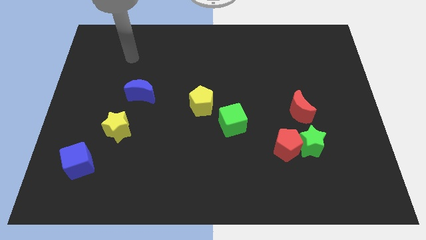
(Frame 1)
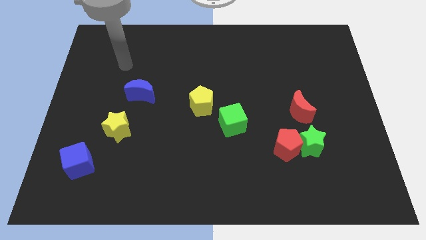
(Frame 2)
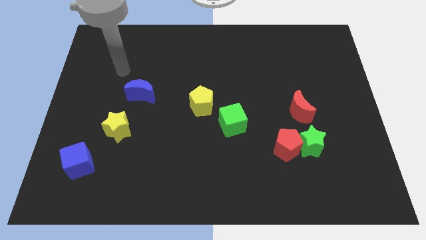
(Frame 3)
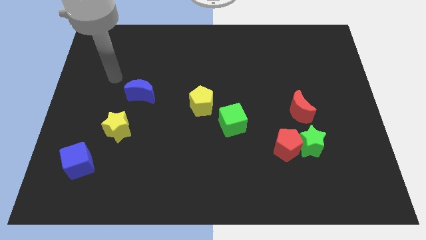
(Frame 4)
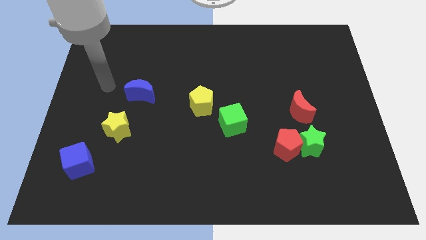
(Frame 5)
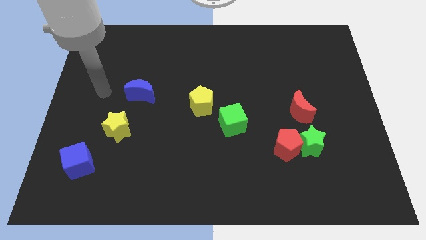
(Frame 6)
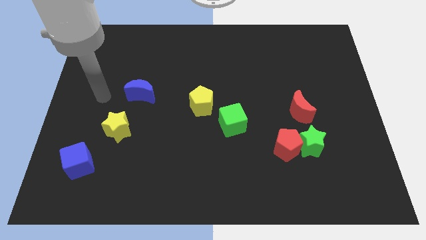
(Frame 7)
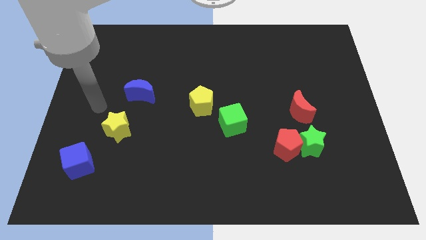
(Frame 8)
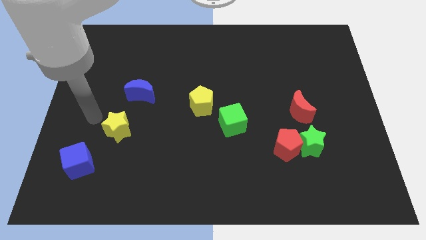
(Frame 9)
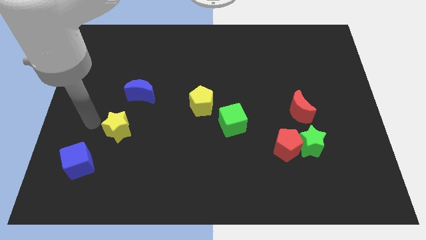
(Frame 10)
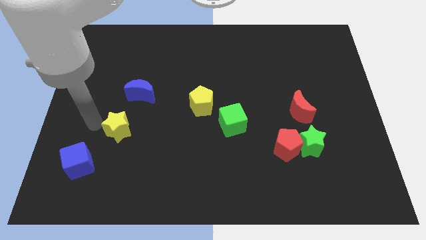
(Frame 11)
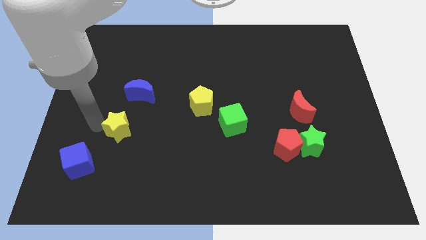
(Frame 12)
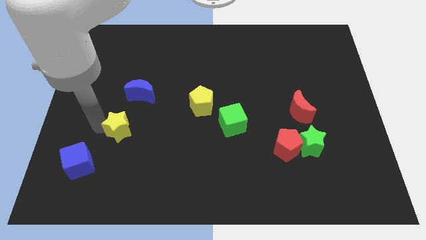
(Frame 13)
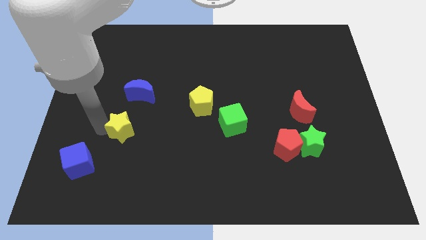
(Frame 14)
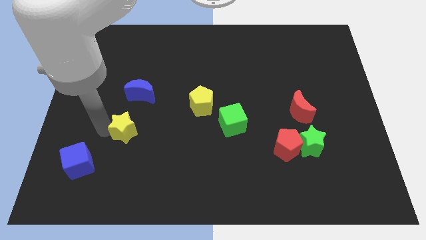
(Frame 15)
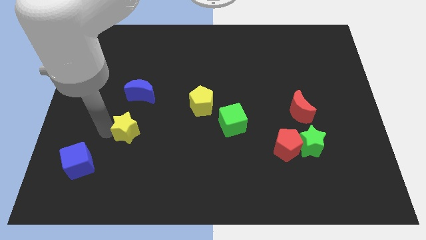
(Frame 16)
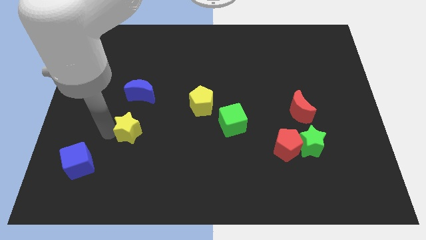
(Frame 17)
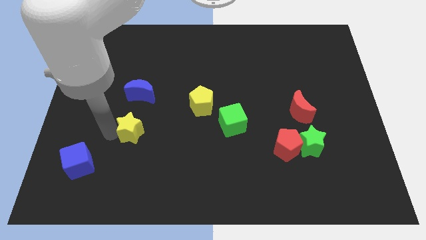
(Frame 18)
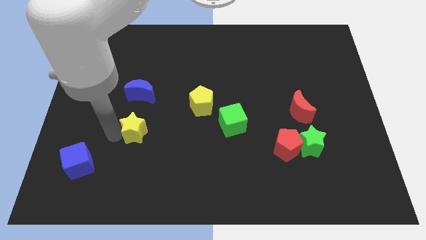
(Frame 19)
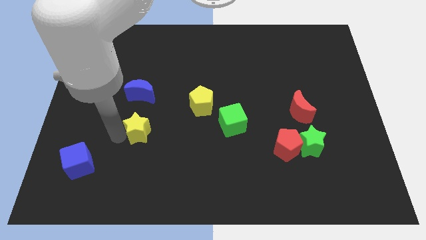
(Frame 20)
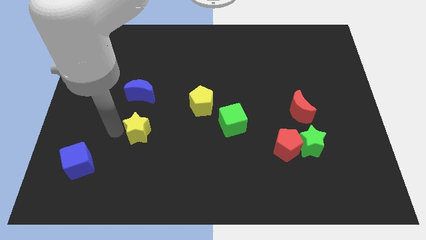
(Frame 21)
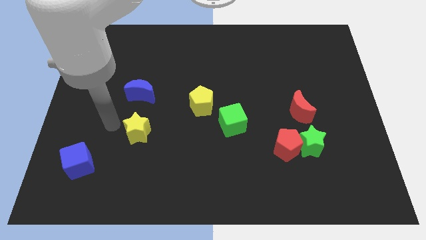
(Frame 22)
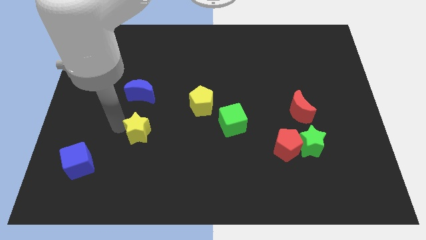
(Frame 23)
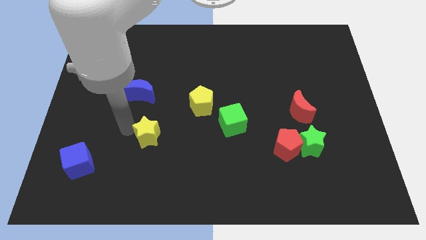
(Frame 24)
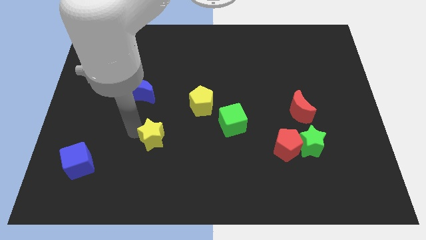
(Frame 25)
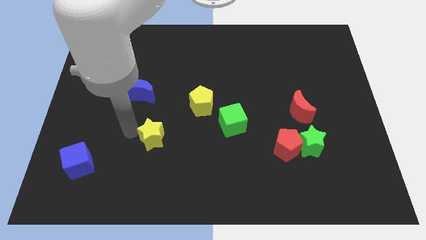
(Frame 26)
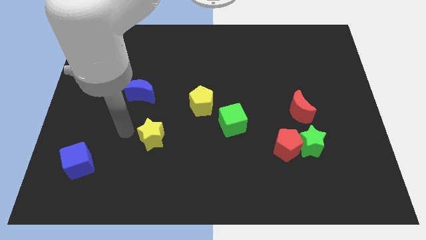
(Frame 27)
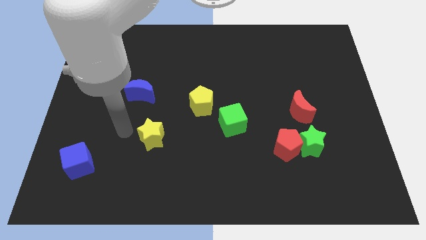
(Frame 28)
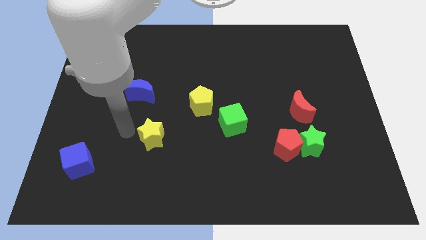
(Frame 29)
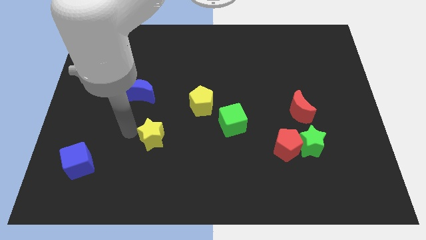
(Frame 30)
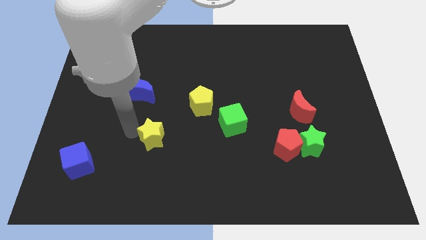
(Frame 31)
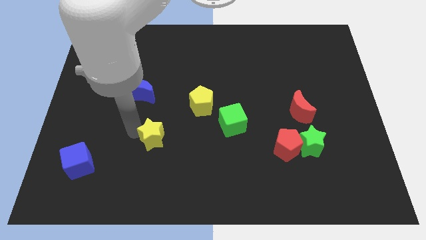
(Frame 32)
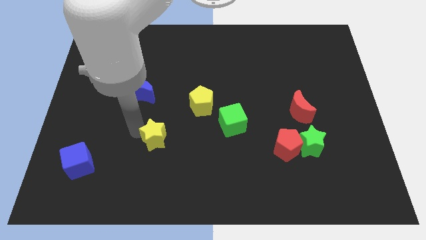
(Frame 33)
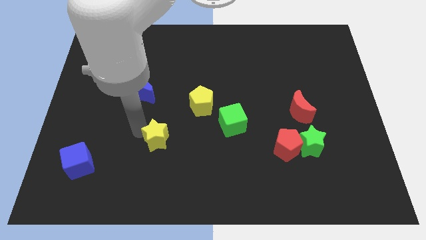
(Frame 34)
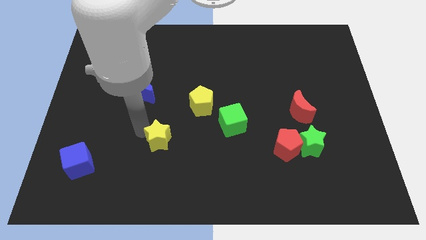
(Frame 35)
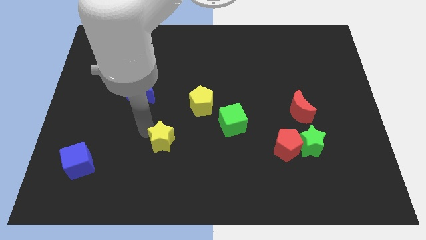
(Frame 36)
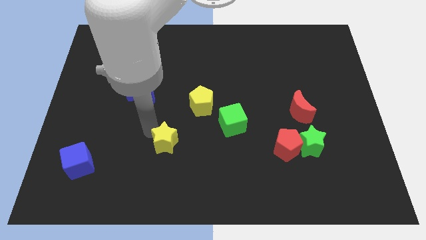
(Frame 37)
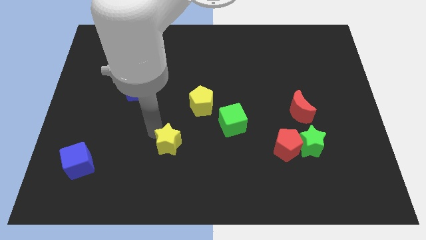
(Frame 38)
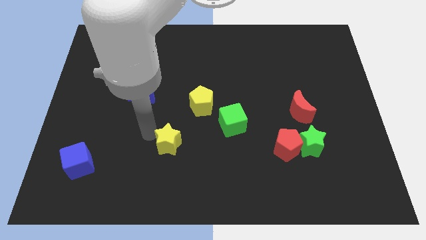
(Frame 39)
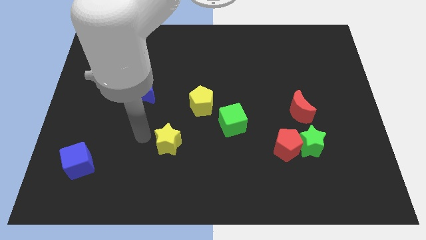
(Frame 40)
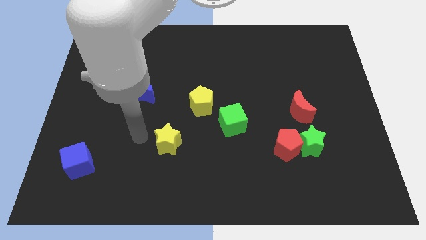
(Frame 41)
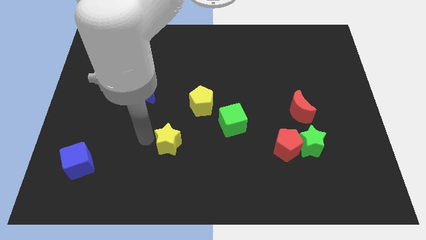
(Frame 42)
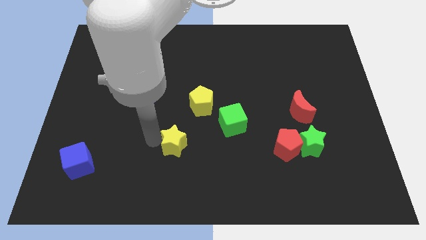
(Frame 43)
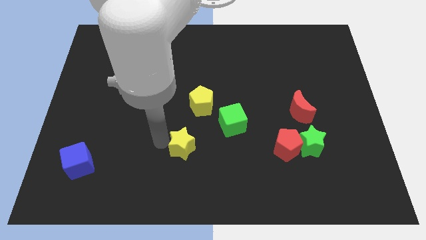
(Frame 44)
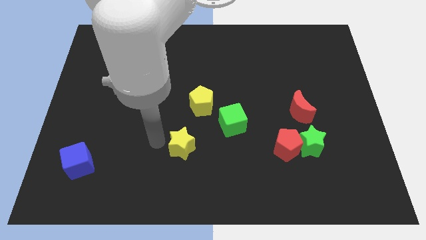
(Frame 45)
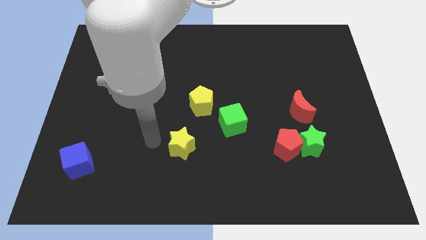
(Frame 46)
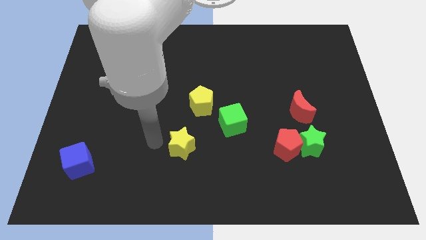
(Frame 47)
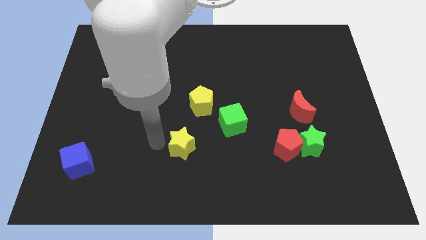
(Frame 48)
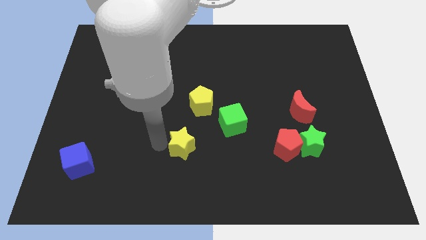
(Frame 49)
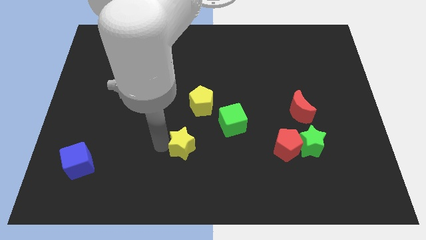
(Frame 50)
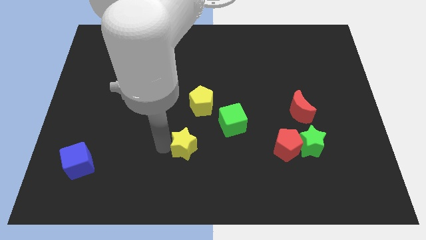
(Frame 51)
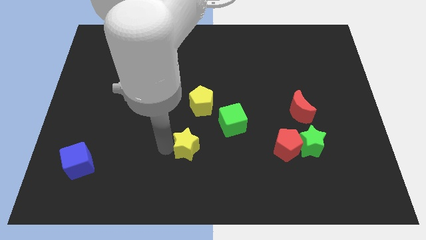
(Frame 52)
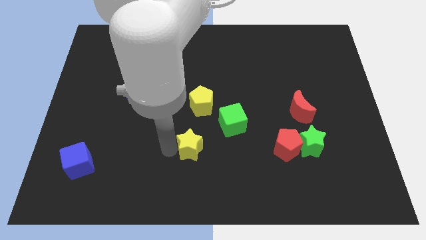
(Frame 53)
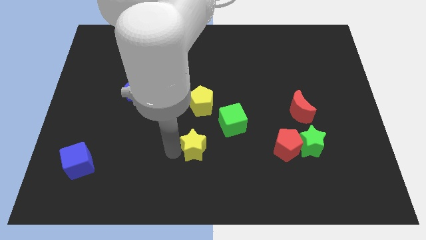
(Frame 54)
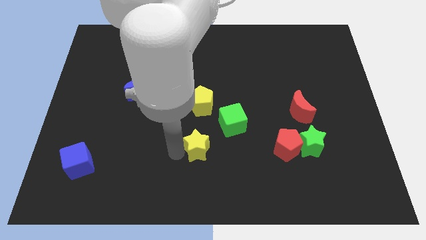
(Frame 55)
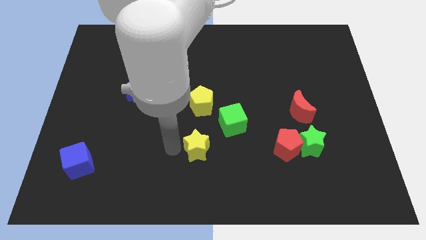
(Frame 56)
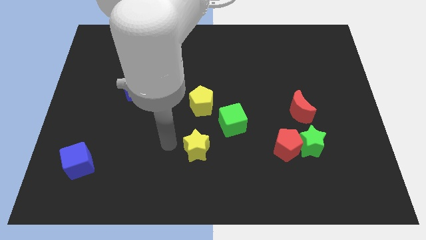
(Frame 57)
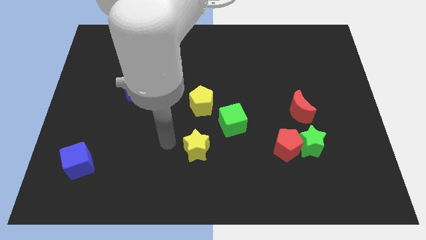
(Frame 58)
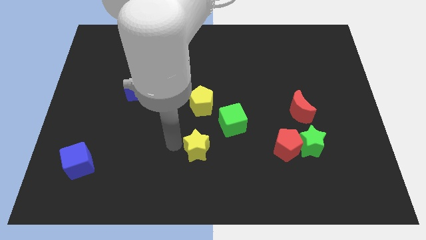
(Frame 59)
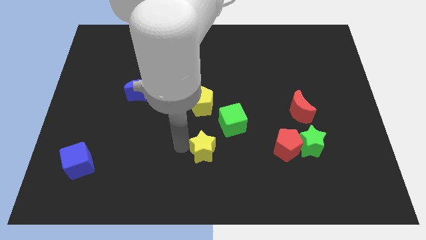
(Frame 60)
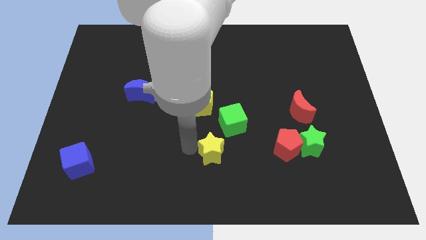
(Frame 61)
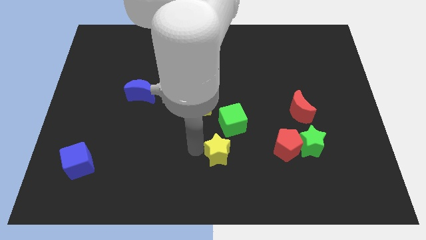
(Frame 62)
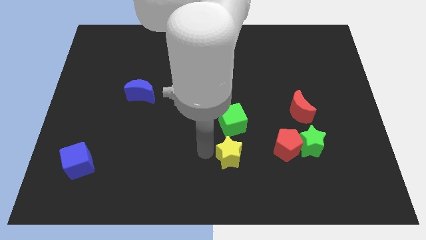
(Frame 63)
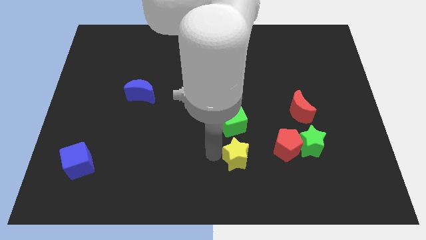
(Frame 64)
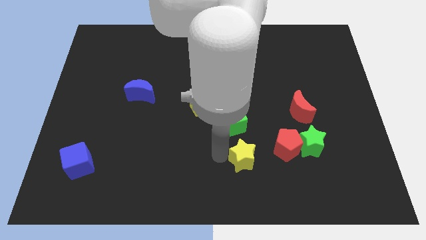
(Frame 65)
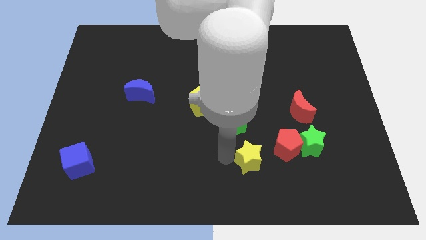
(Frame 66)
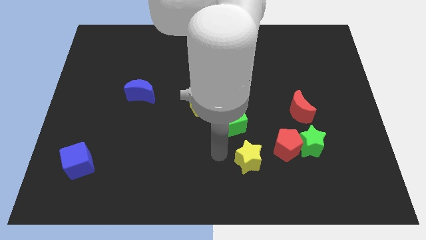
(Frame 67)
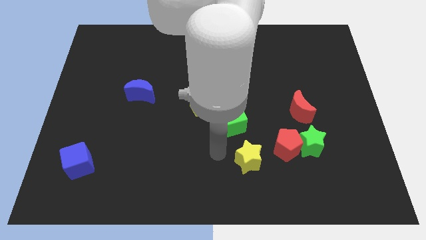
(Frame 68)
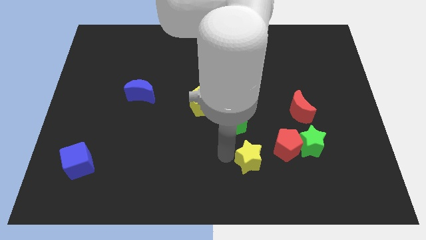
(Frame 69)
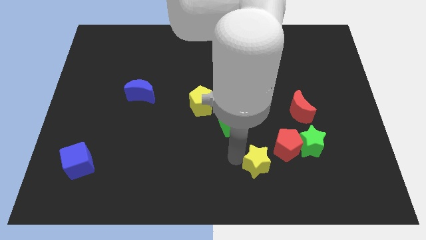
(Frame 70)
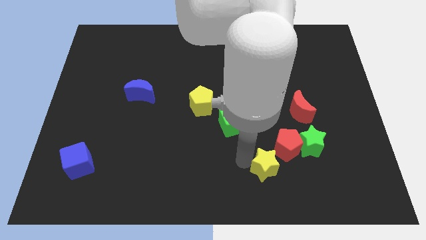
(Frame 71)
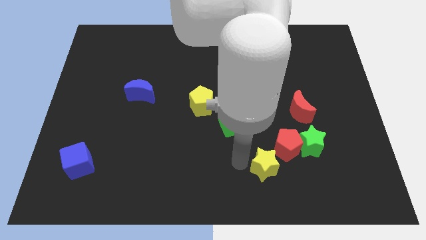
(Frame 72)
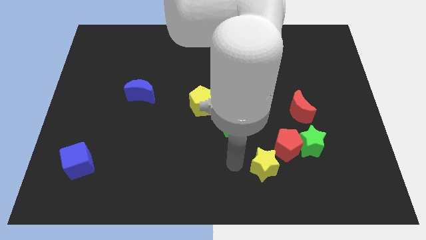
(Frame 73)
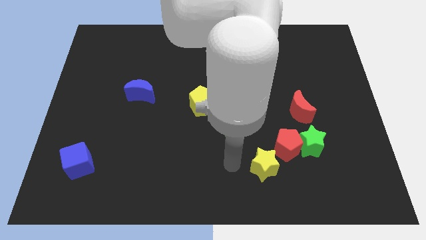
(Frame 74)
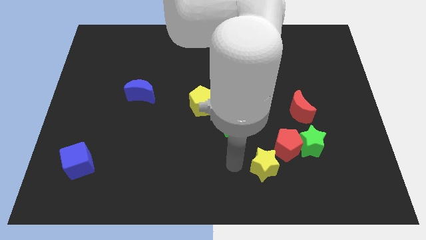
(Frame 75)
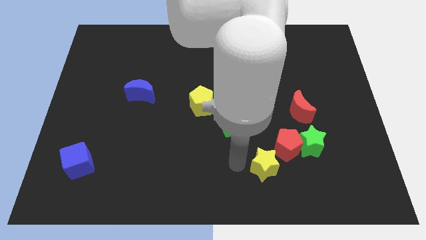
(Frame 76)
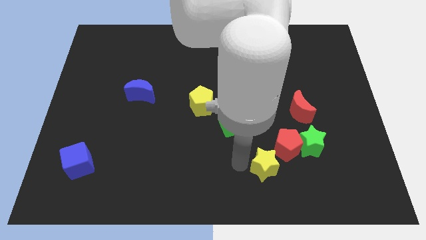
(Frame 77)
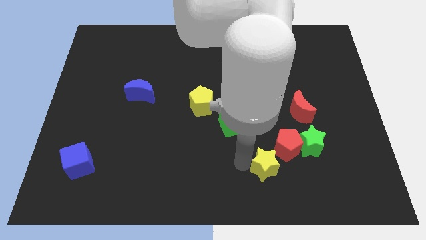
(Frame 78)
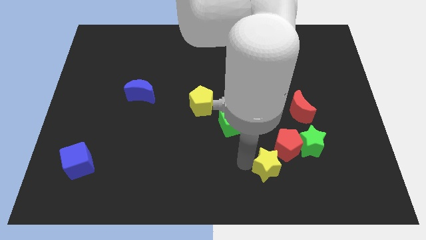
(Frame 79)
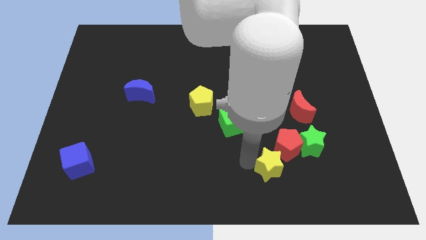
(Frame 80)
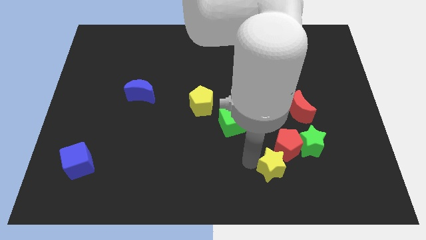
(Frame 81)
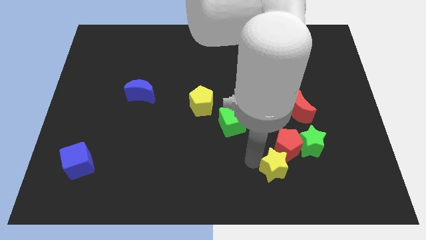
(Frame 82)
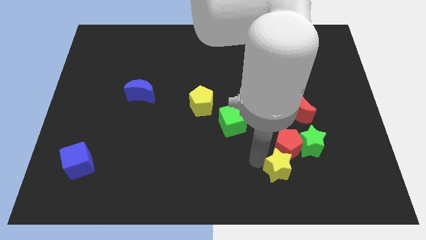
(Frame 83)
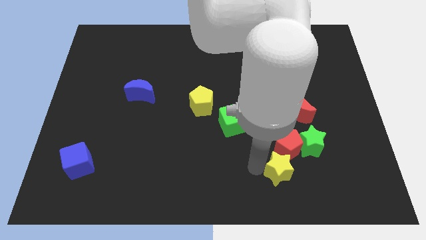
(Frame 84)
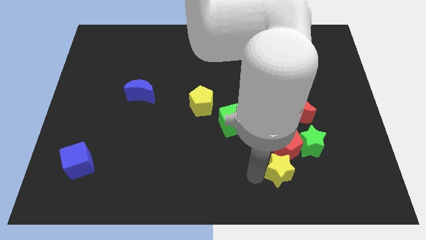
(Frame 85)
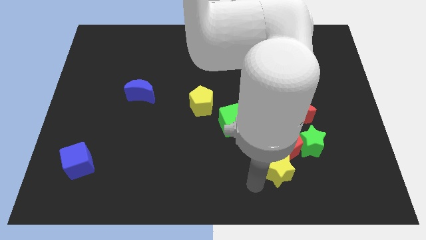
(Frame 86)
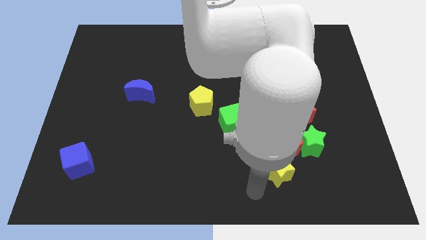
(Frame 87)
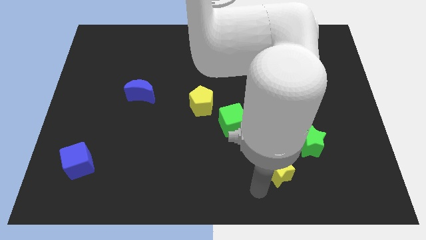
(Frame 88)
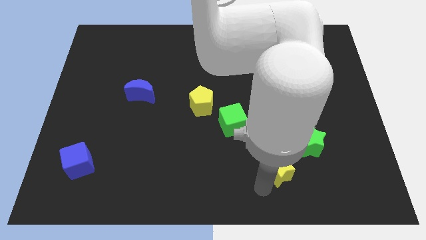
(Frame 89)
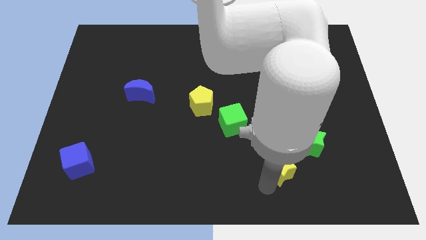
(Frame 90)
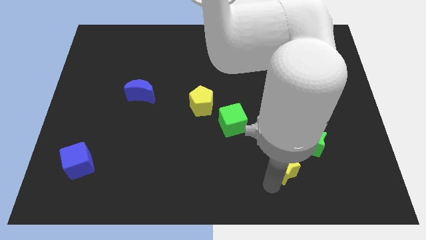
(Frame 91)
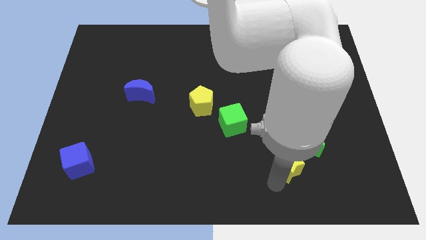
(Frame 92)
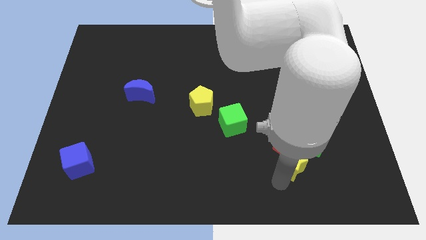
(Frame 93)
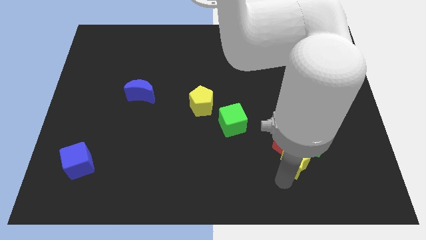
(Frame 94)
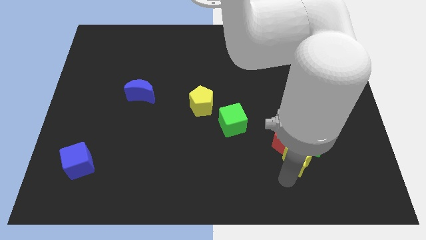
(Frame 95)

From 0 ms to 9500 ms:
push the yellow star next to the green star
